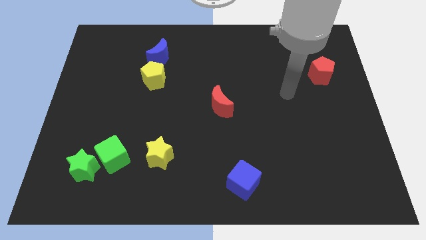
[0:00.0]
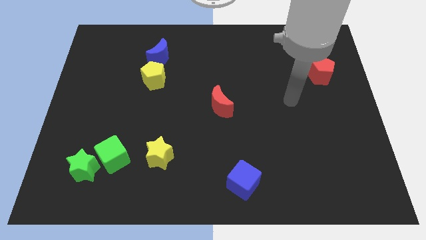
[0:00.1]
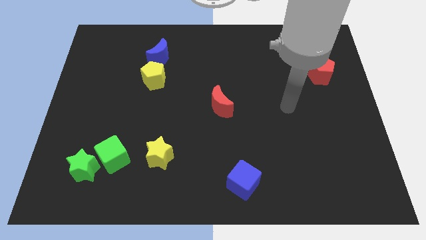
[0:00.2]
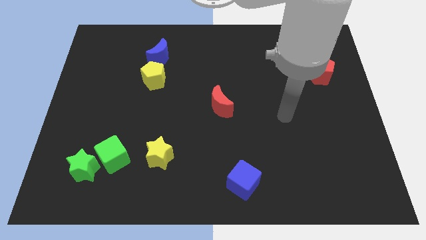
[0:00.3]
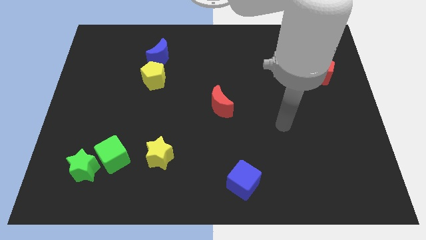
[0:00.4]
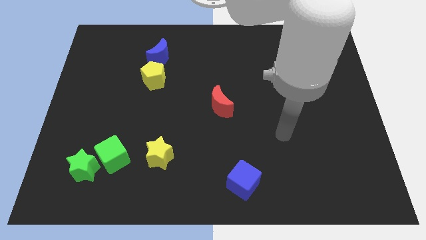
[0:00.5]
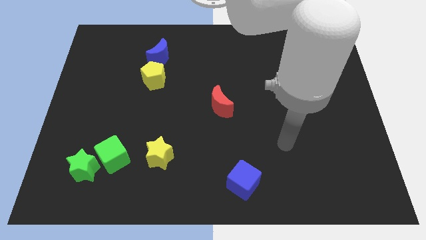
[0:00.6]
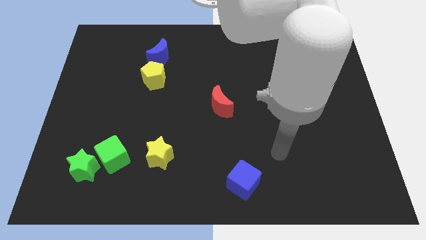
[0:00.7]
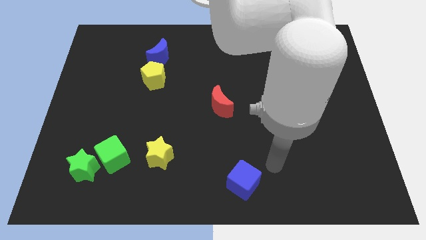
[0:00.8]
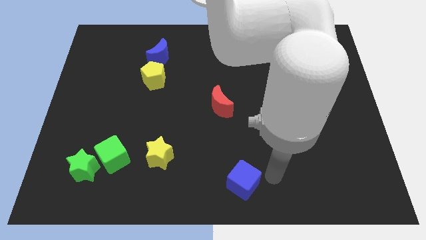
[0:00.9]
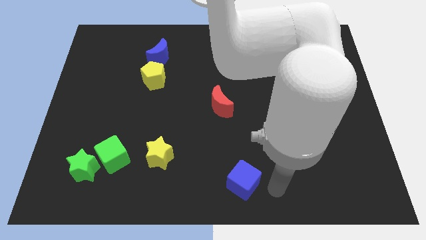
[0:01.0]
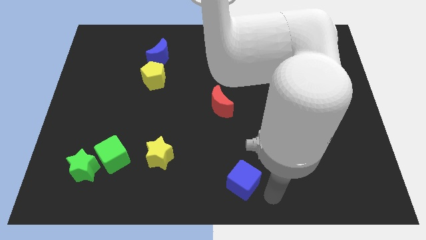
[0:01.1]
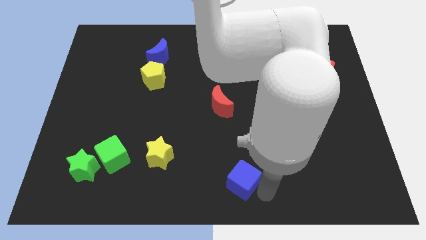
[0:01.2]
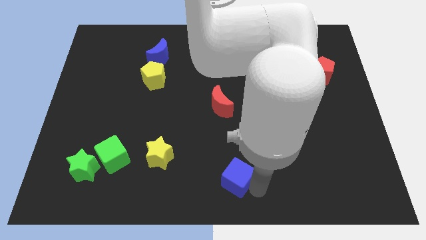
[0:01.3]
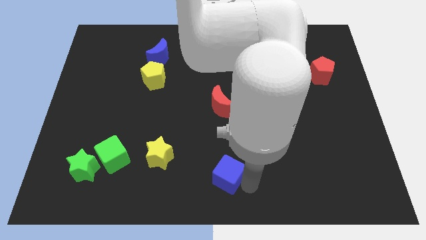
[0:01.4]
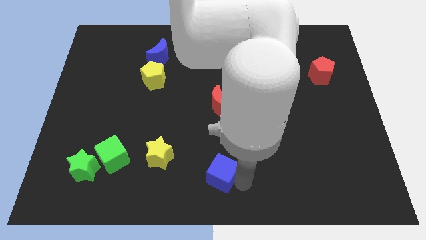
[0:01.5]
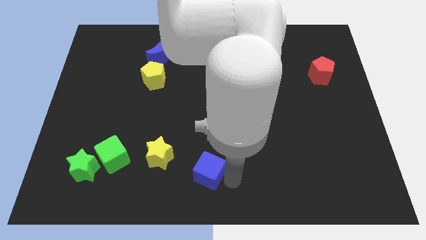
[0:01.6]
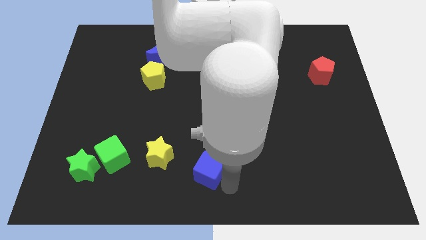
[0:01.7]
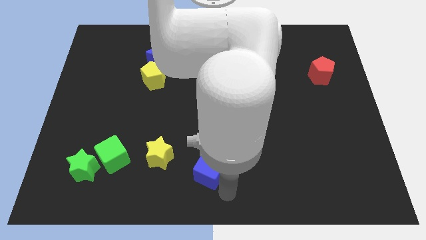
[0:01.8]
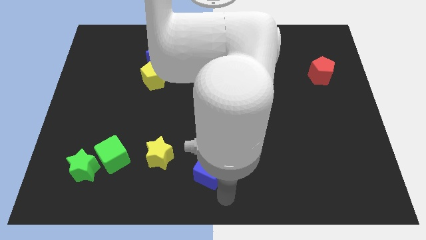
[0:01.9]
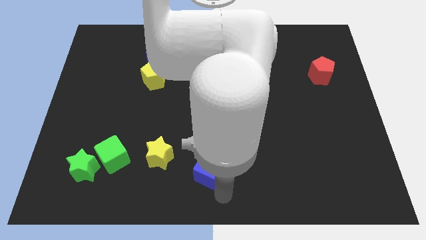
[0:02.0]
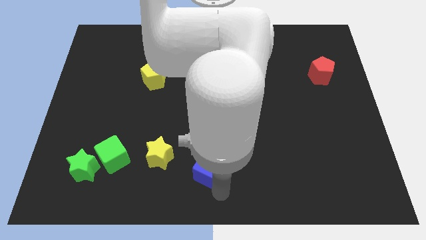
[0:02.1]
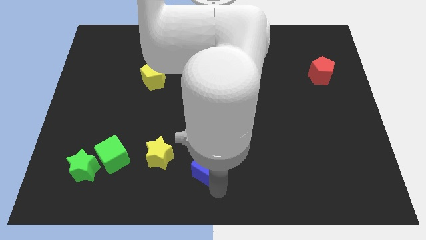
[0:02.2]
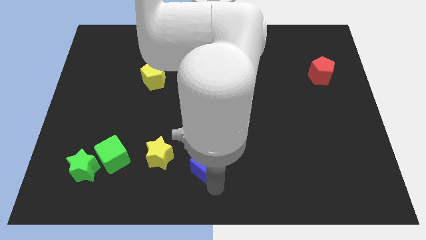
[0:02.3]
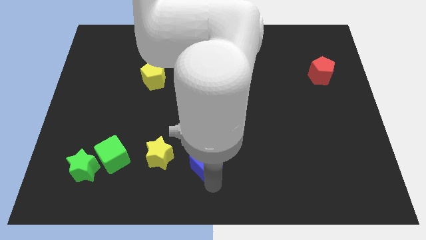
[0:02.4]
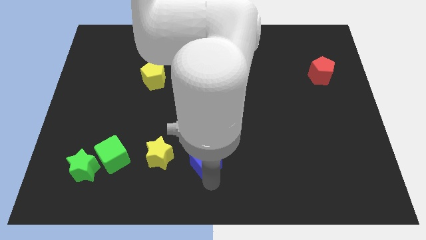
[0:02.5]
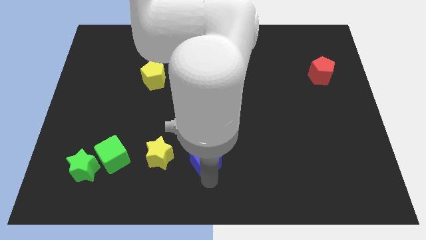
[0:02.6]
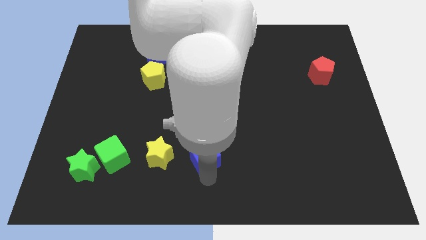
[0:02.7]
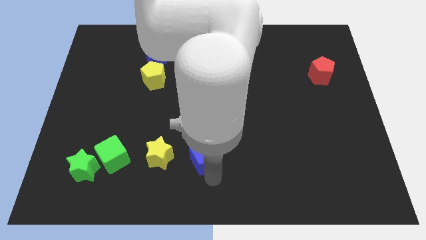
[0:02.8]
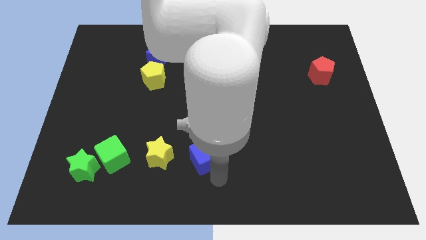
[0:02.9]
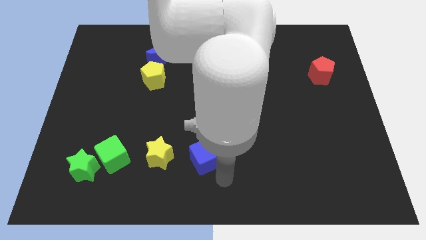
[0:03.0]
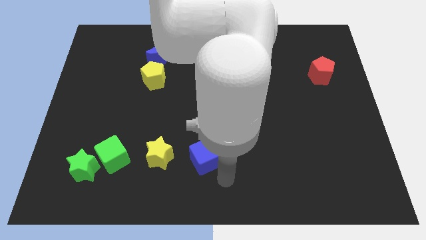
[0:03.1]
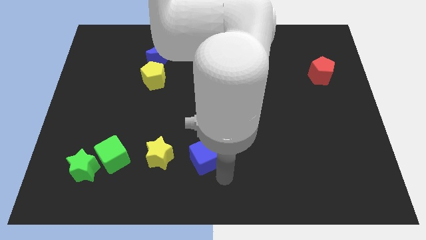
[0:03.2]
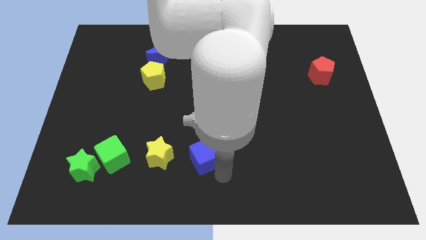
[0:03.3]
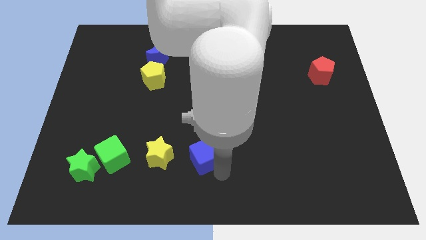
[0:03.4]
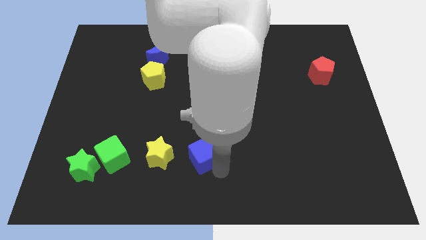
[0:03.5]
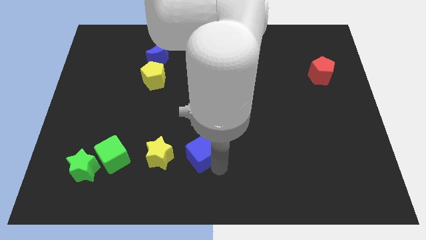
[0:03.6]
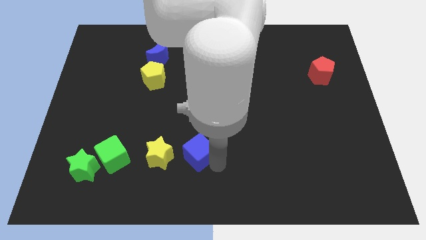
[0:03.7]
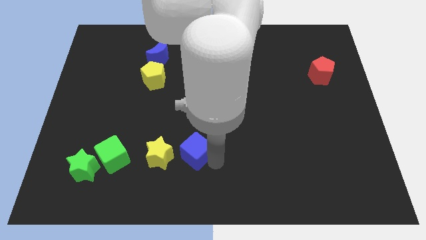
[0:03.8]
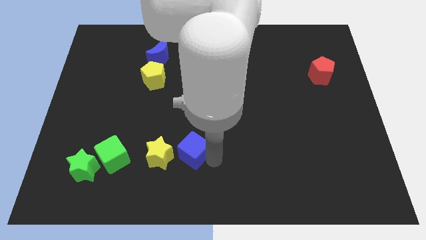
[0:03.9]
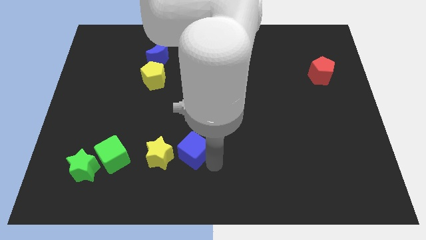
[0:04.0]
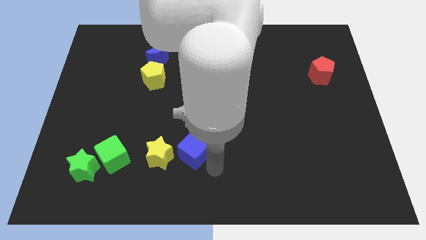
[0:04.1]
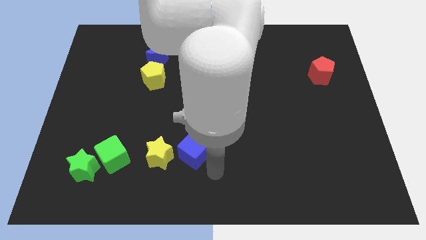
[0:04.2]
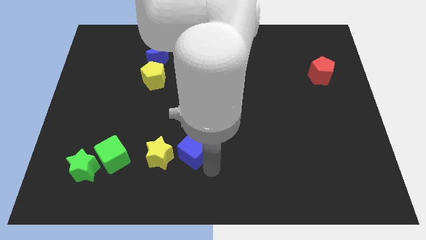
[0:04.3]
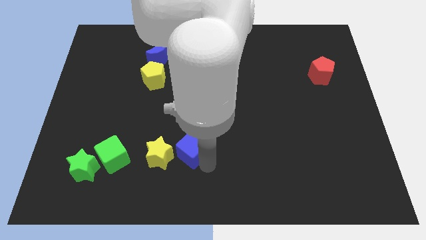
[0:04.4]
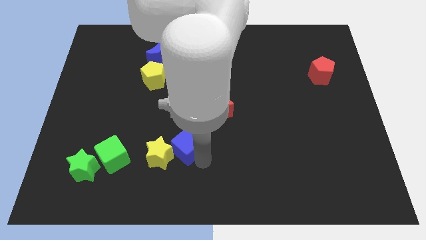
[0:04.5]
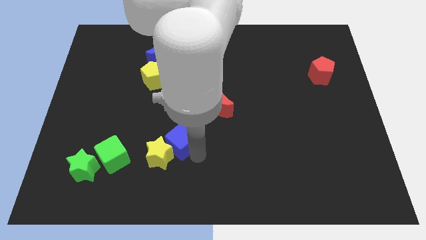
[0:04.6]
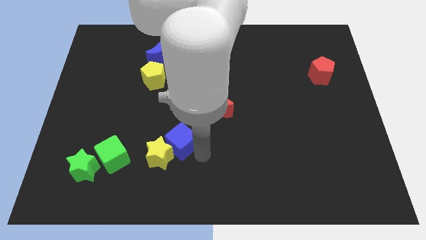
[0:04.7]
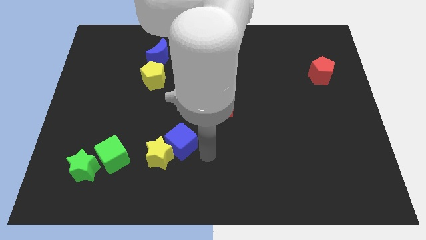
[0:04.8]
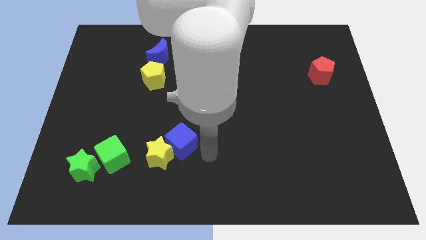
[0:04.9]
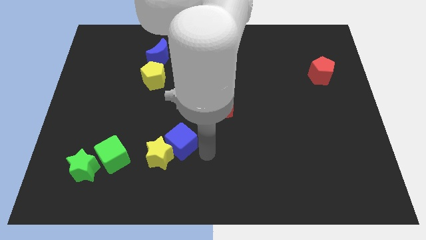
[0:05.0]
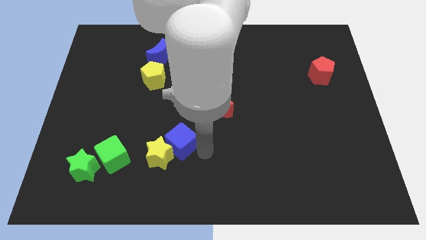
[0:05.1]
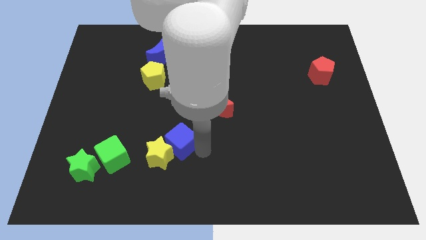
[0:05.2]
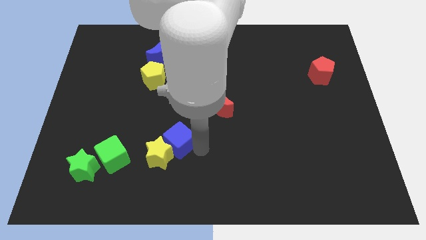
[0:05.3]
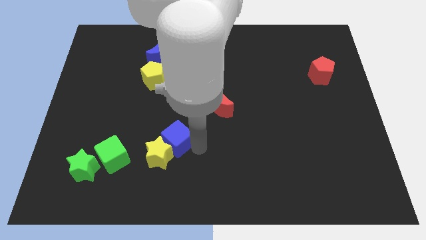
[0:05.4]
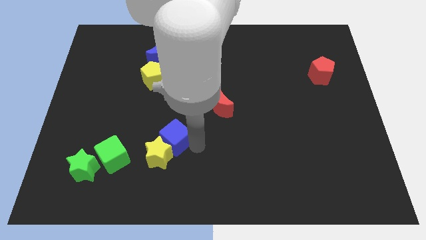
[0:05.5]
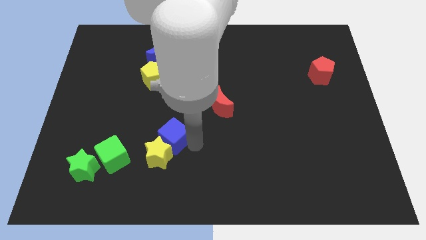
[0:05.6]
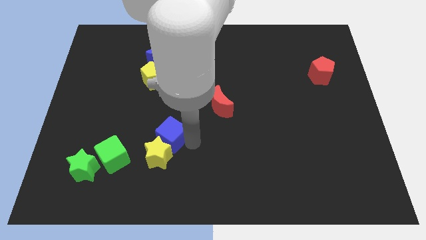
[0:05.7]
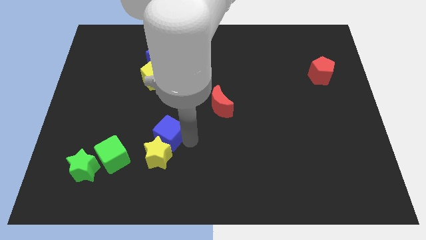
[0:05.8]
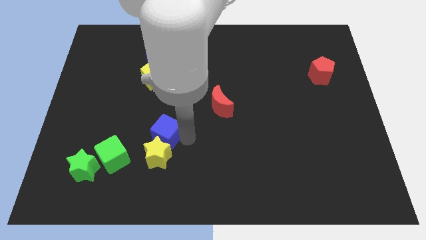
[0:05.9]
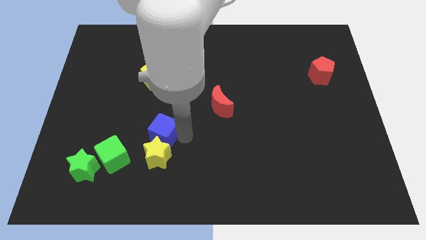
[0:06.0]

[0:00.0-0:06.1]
slide the blue cube to the top right of the green cube

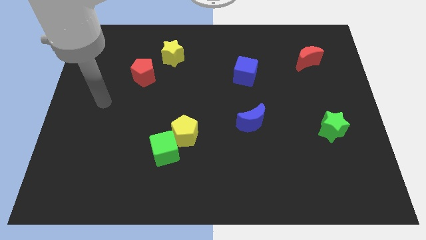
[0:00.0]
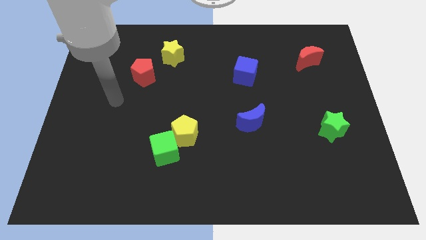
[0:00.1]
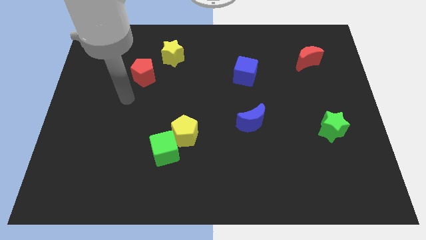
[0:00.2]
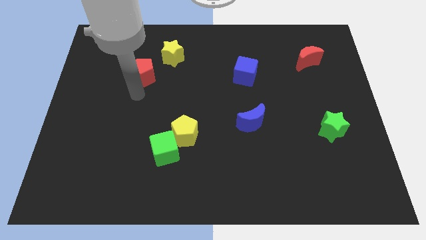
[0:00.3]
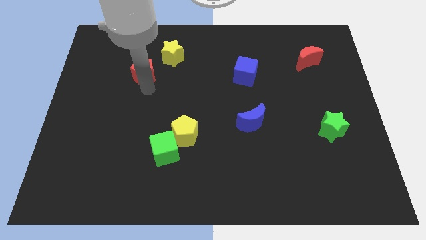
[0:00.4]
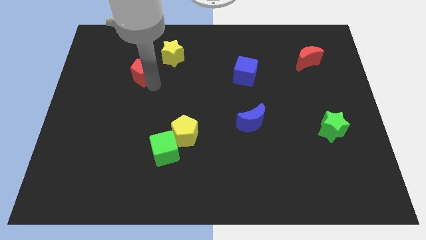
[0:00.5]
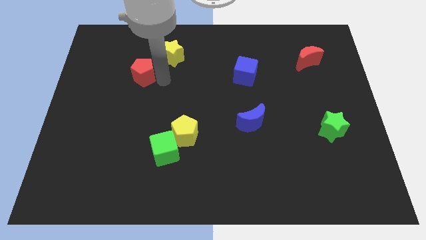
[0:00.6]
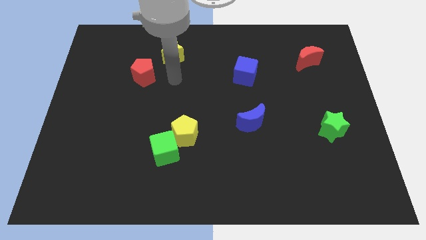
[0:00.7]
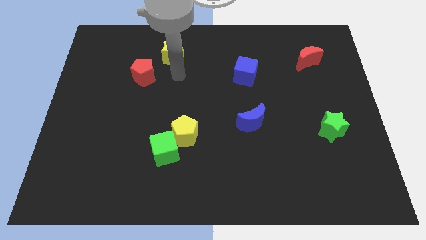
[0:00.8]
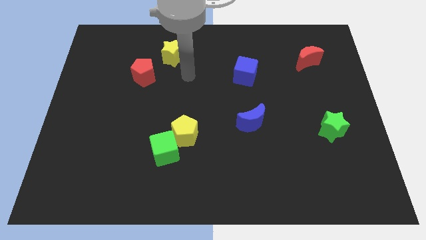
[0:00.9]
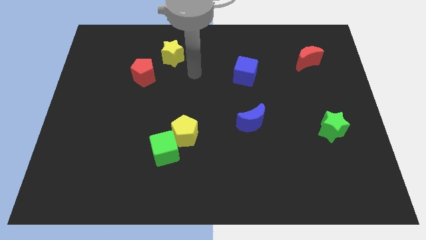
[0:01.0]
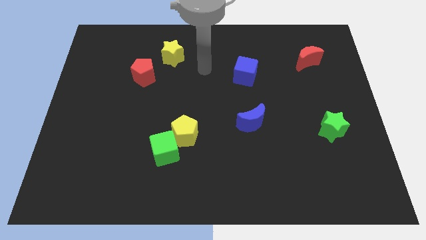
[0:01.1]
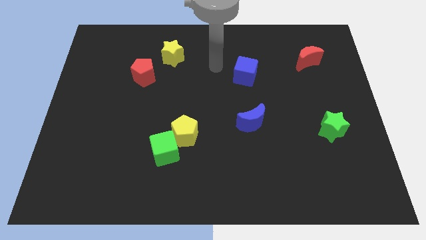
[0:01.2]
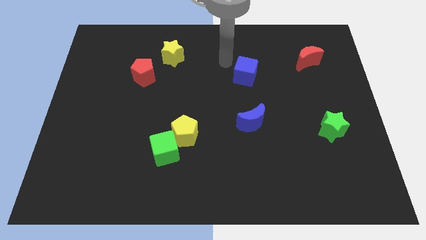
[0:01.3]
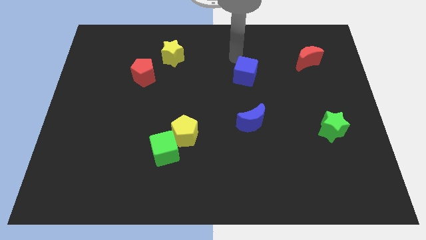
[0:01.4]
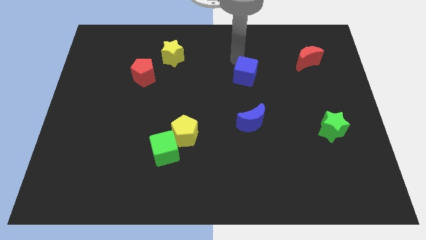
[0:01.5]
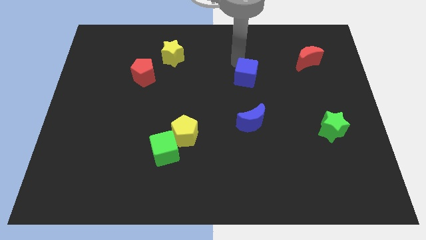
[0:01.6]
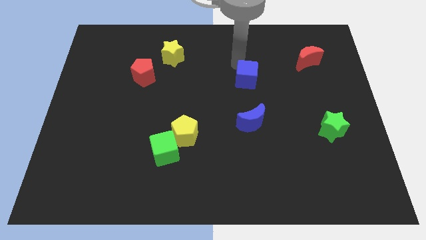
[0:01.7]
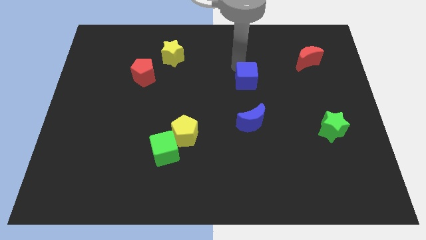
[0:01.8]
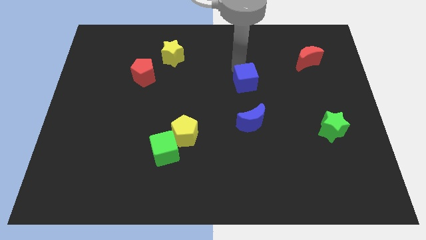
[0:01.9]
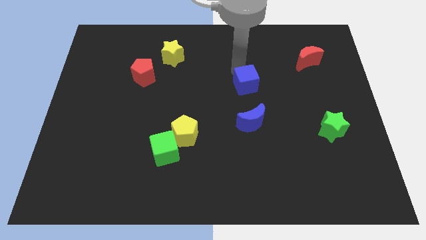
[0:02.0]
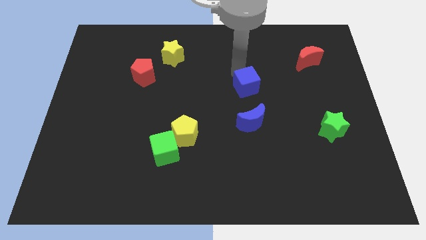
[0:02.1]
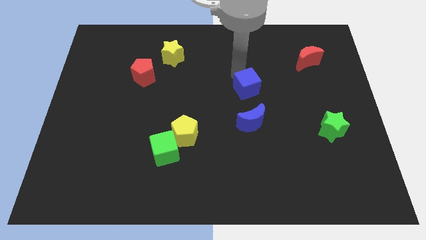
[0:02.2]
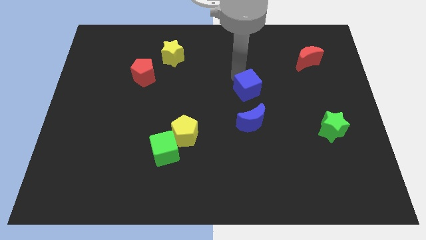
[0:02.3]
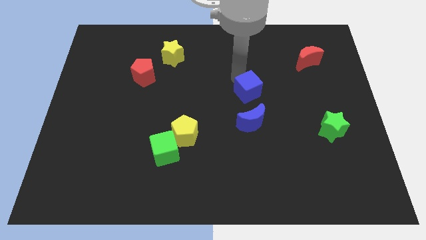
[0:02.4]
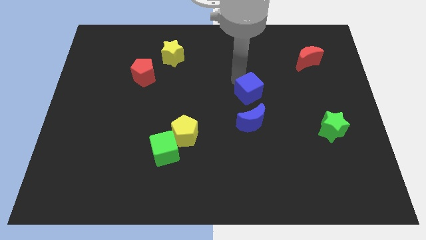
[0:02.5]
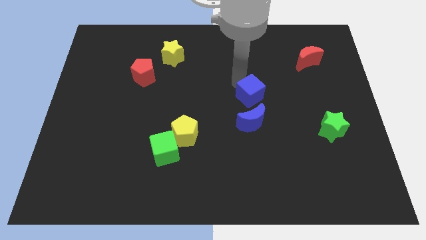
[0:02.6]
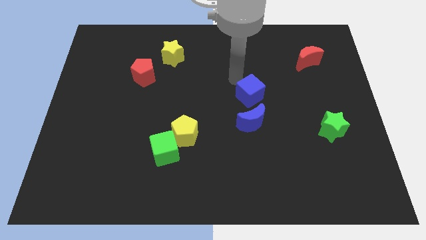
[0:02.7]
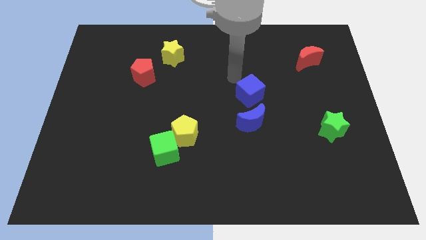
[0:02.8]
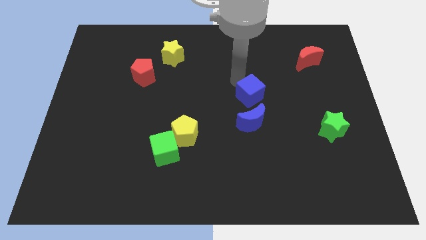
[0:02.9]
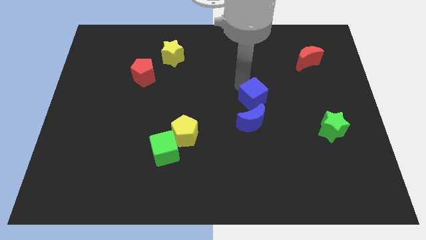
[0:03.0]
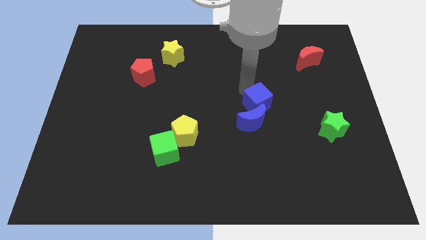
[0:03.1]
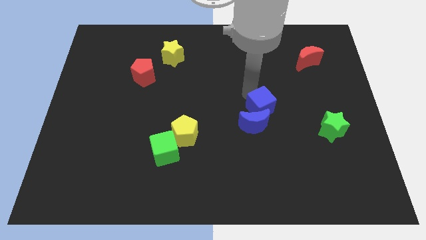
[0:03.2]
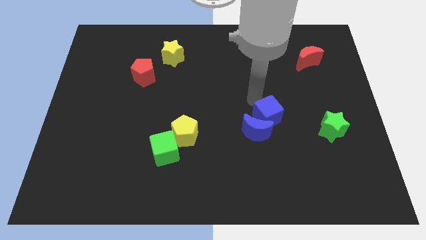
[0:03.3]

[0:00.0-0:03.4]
slide the blue cube to the left of the green star
